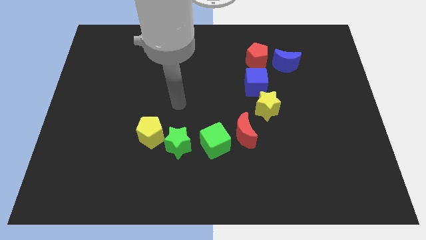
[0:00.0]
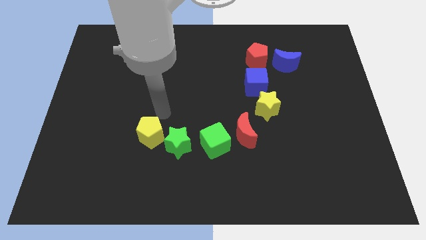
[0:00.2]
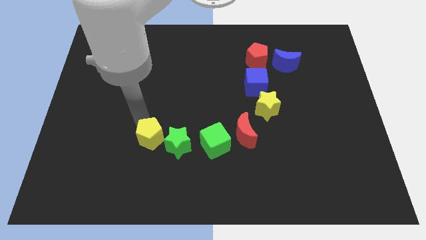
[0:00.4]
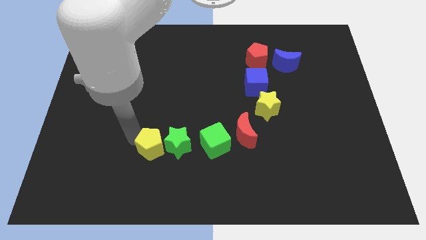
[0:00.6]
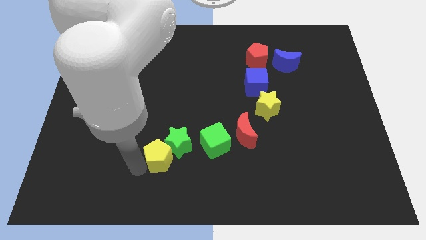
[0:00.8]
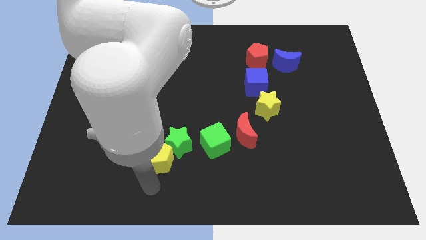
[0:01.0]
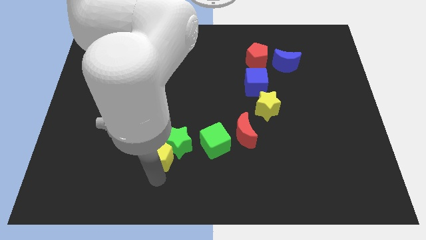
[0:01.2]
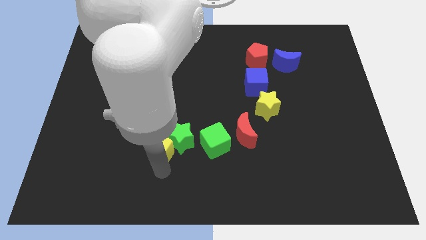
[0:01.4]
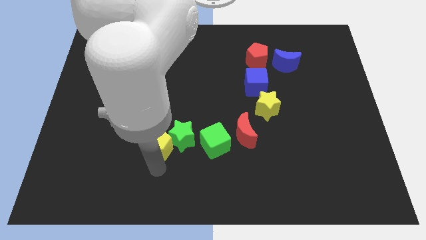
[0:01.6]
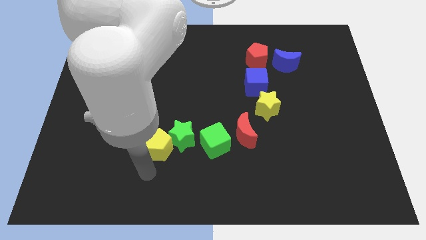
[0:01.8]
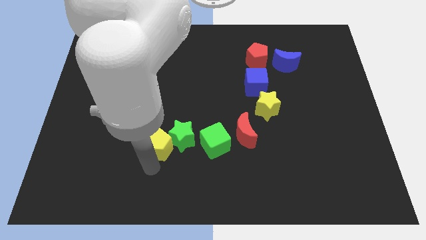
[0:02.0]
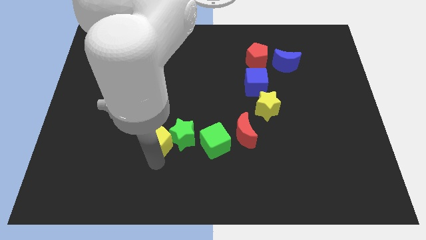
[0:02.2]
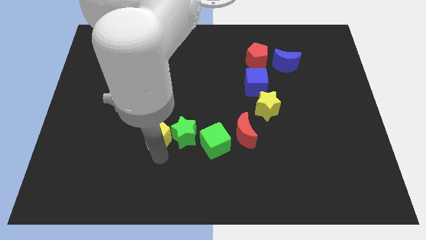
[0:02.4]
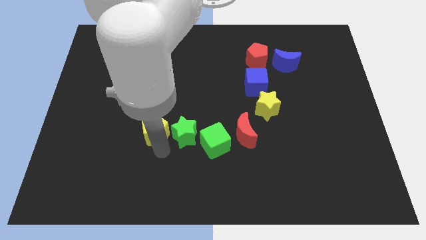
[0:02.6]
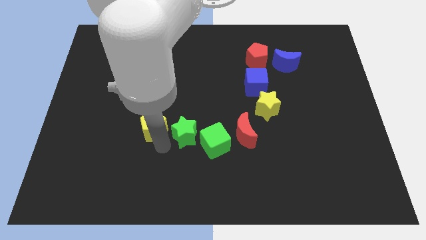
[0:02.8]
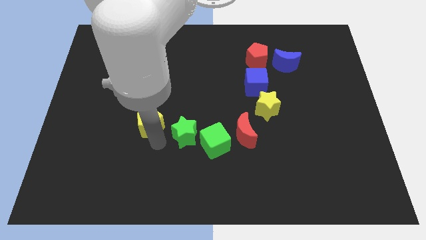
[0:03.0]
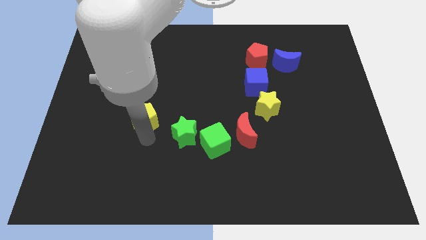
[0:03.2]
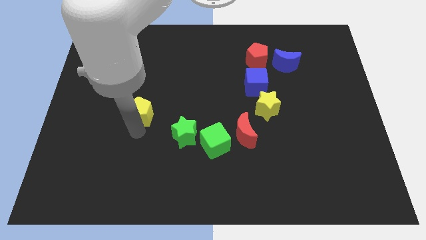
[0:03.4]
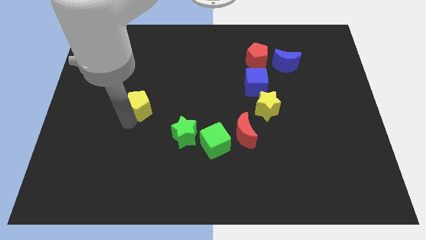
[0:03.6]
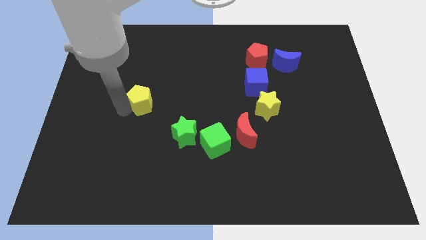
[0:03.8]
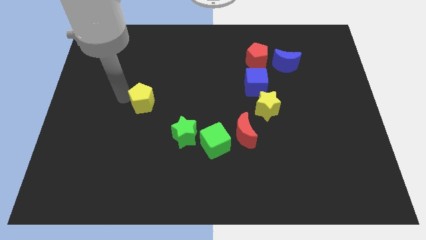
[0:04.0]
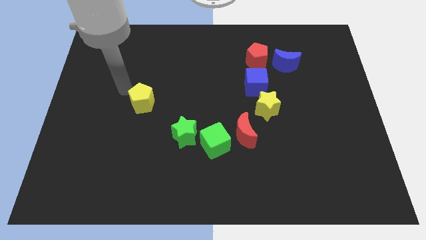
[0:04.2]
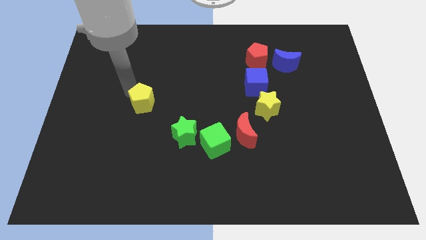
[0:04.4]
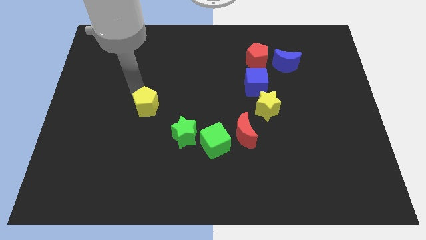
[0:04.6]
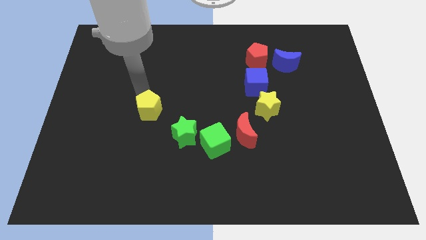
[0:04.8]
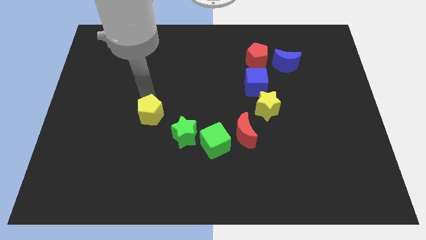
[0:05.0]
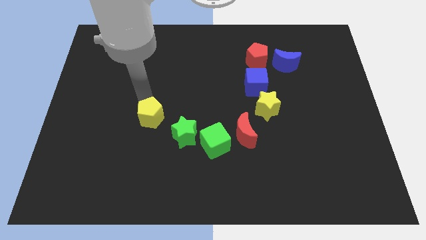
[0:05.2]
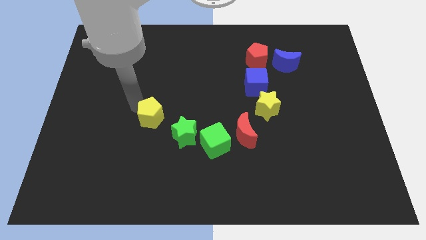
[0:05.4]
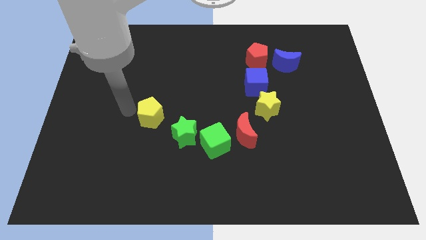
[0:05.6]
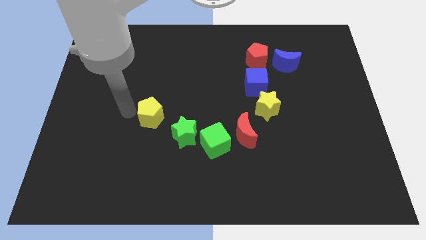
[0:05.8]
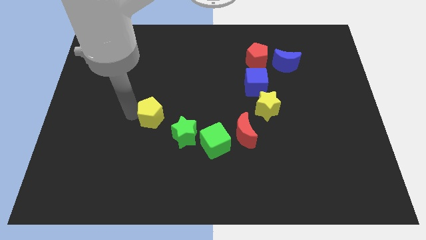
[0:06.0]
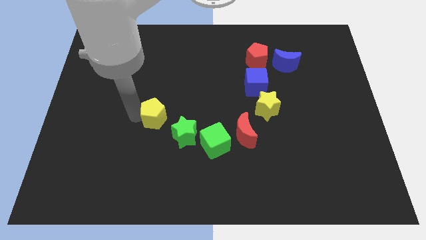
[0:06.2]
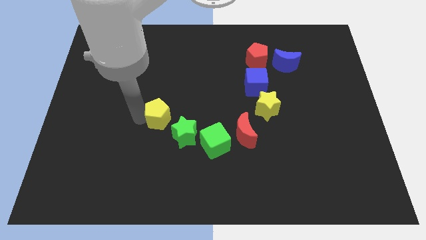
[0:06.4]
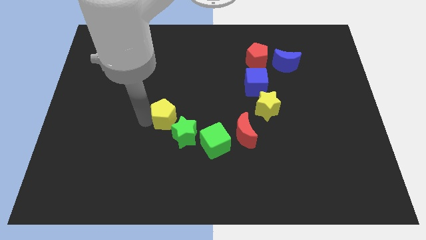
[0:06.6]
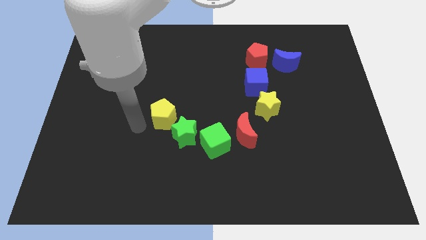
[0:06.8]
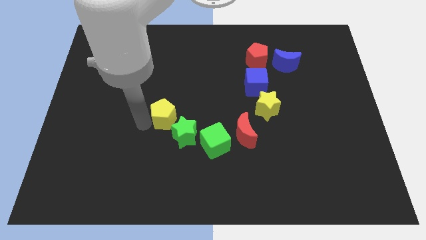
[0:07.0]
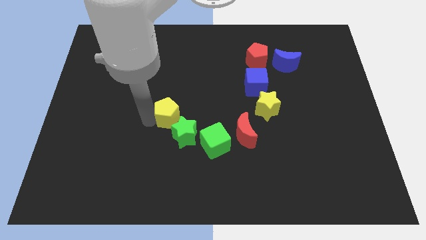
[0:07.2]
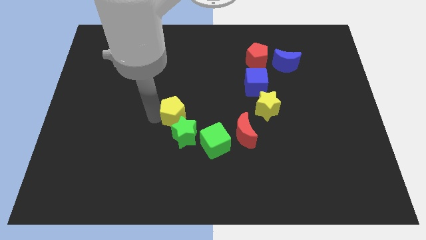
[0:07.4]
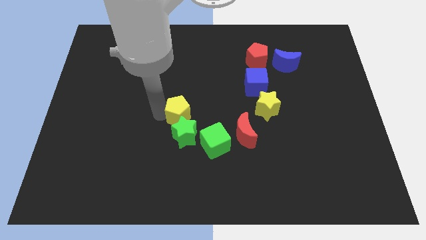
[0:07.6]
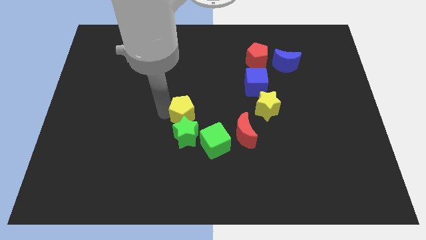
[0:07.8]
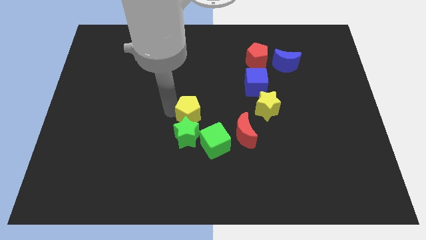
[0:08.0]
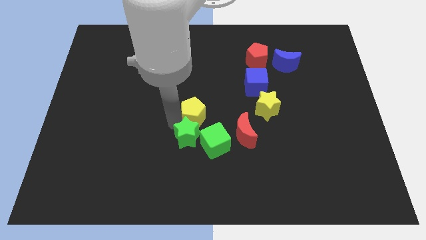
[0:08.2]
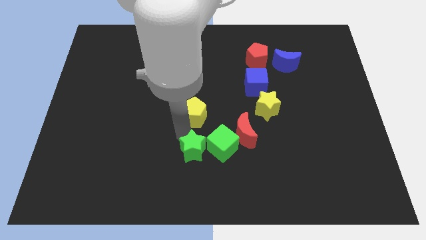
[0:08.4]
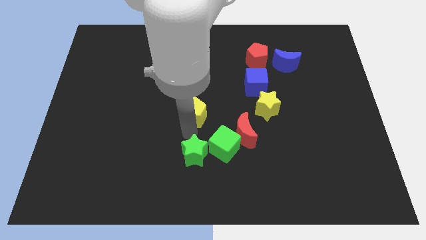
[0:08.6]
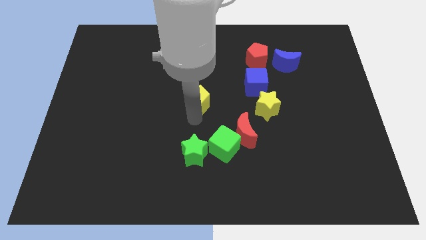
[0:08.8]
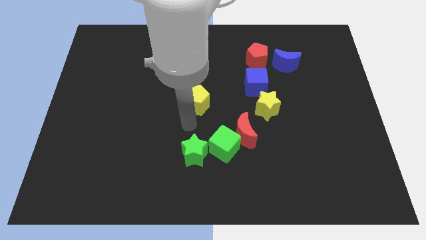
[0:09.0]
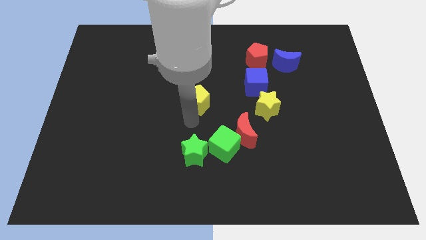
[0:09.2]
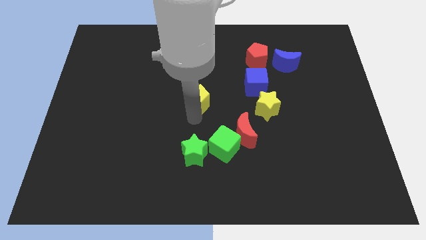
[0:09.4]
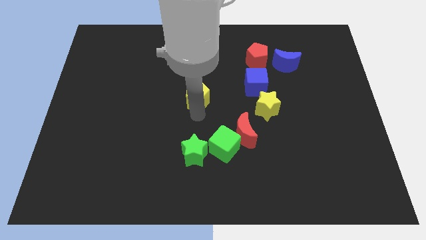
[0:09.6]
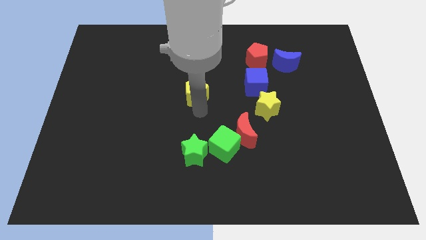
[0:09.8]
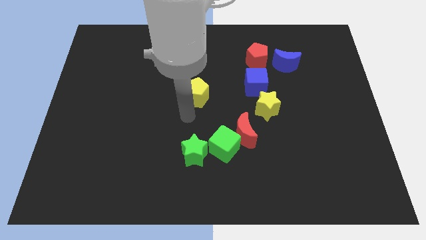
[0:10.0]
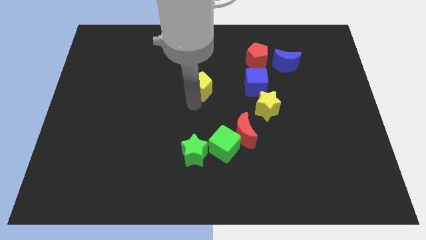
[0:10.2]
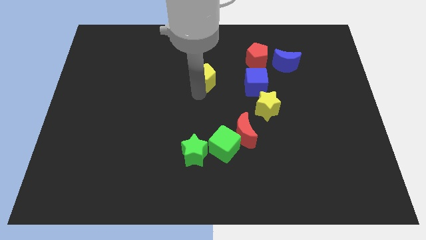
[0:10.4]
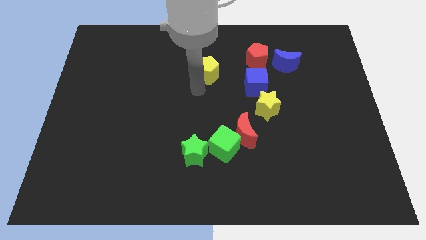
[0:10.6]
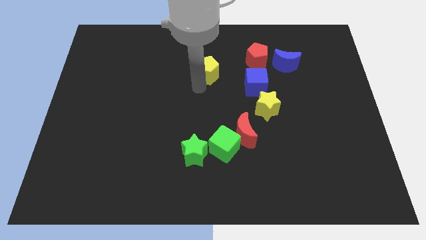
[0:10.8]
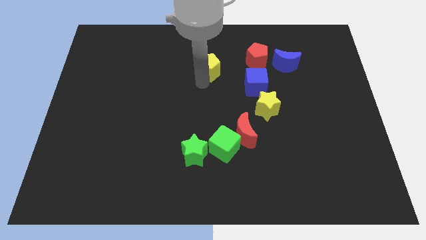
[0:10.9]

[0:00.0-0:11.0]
put the yellow pentagon to the left of the red pentagon

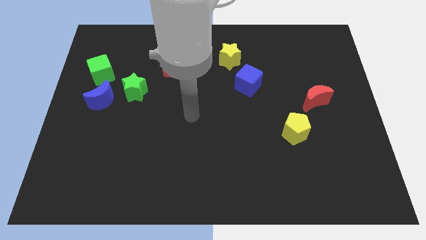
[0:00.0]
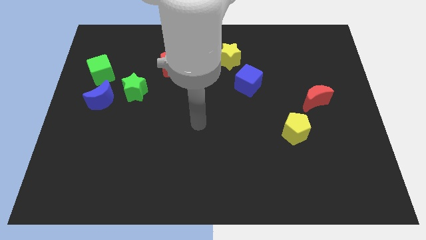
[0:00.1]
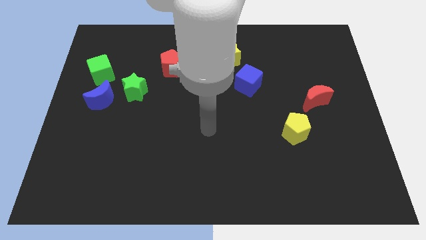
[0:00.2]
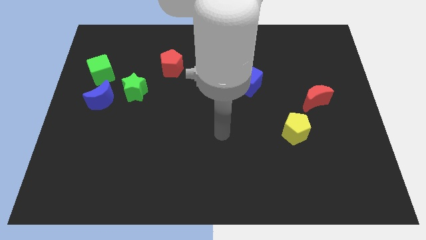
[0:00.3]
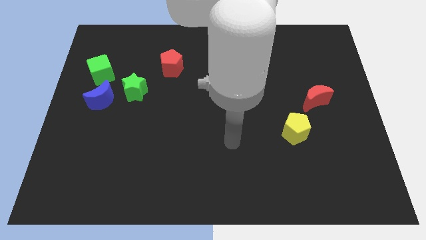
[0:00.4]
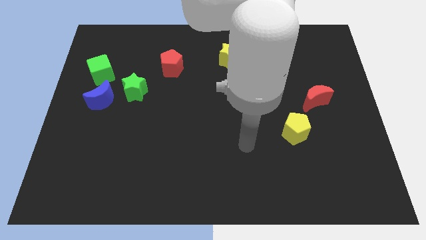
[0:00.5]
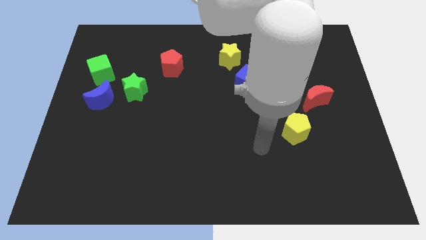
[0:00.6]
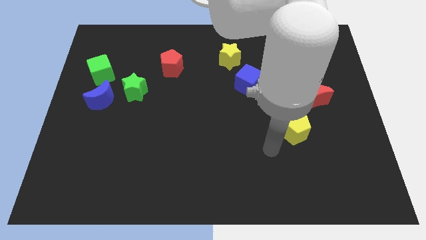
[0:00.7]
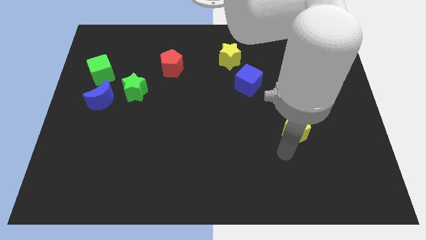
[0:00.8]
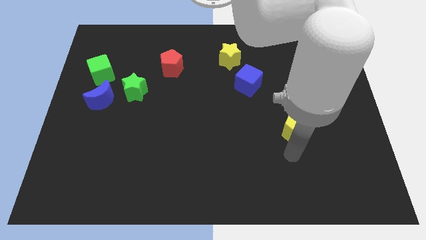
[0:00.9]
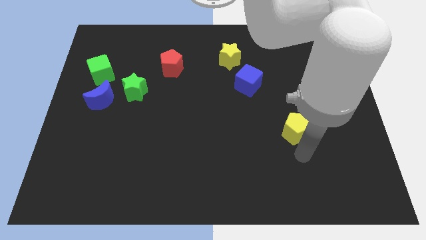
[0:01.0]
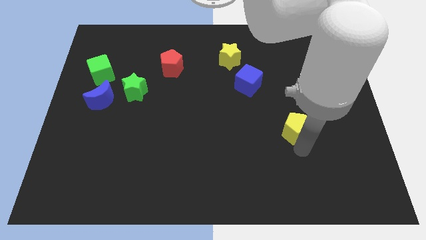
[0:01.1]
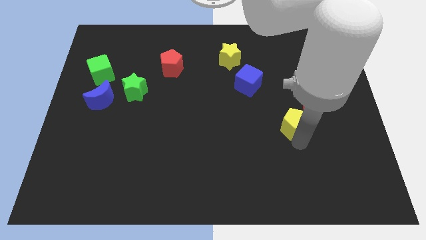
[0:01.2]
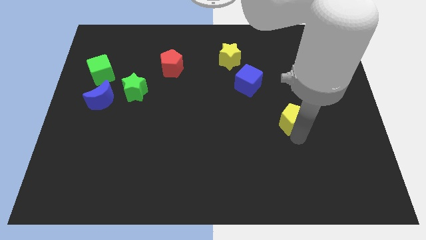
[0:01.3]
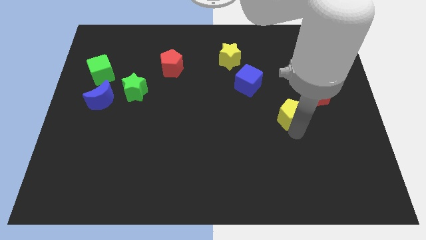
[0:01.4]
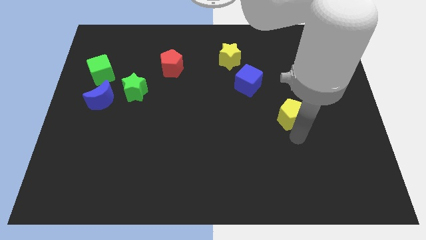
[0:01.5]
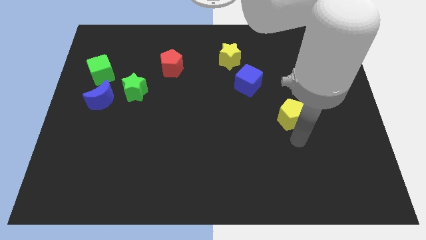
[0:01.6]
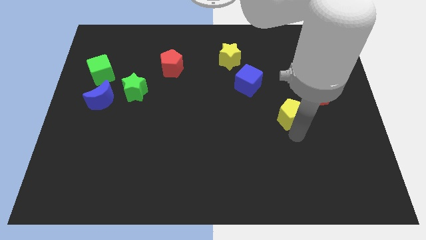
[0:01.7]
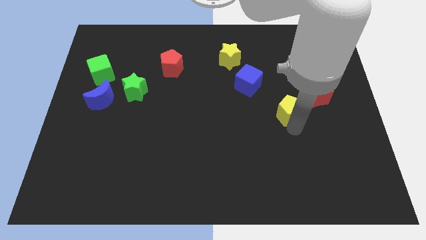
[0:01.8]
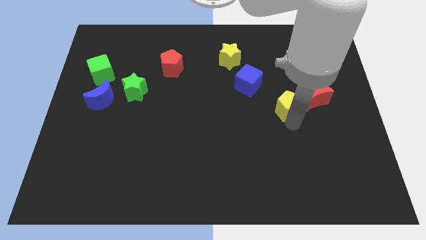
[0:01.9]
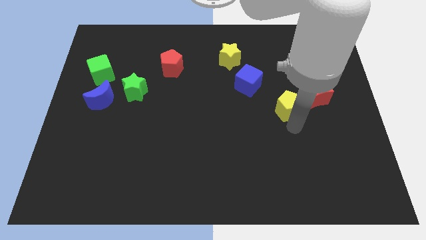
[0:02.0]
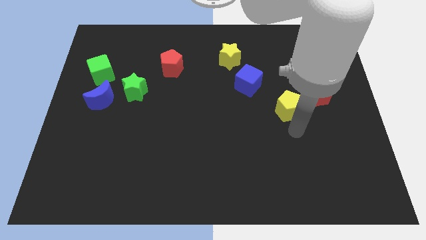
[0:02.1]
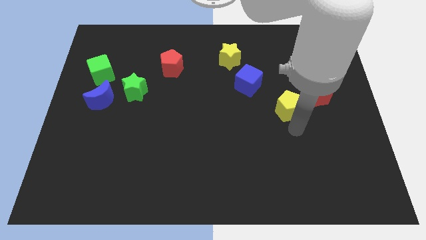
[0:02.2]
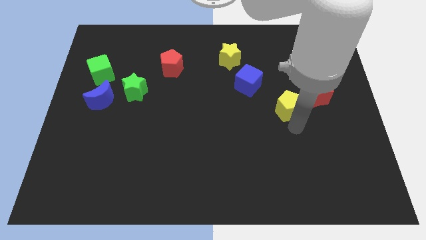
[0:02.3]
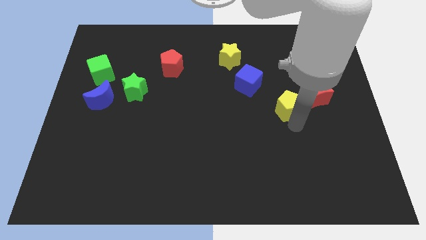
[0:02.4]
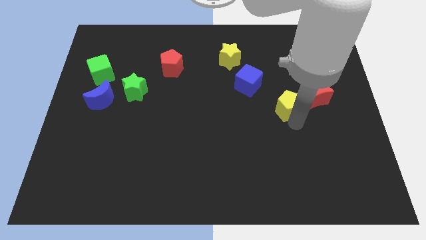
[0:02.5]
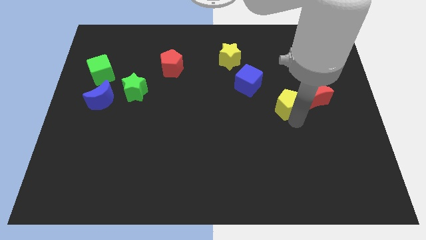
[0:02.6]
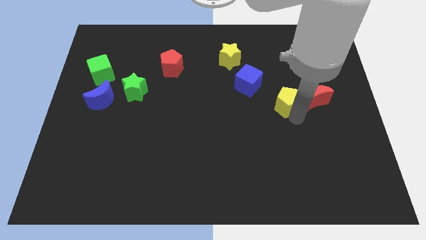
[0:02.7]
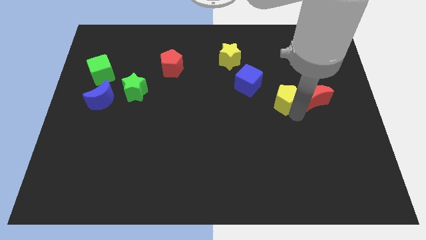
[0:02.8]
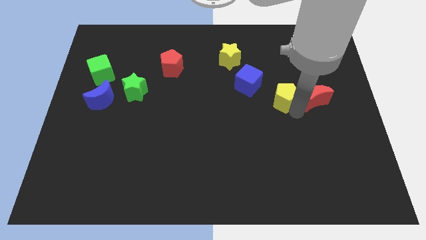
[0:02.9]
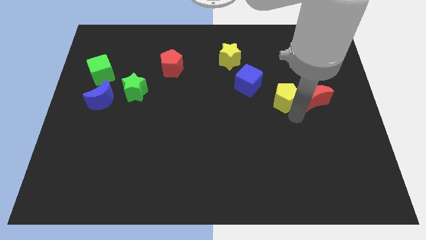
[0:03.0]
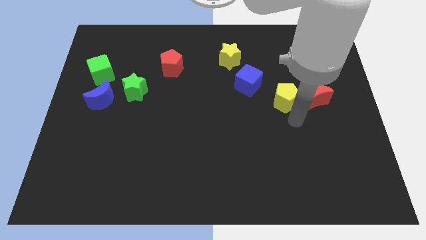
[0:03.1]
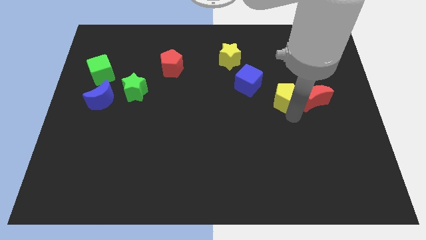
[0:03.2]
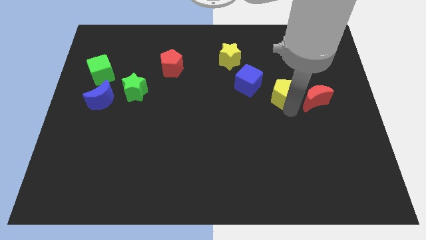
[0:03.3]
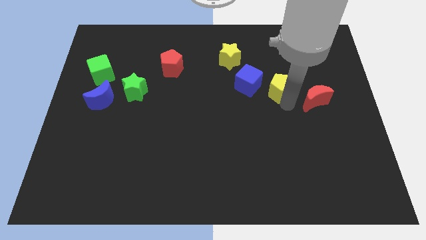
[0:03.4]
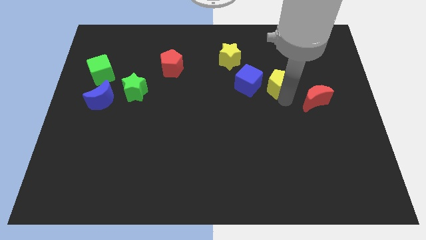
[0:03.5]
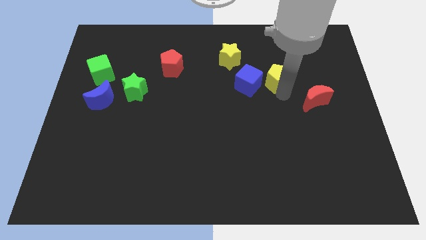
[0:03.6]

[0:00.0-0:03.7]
slide the yellow pentagon to the top right side of the blue cube
